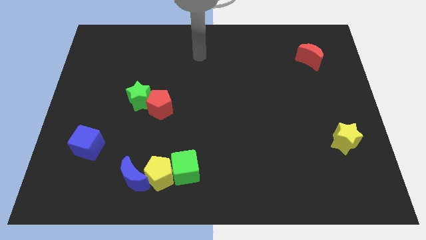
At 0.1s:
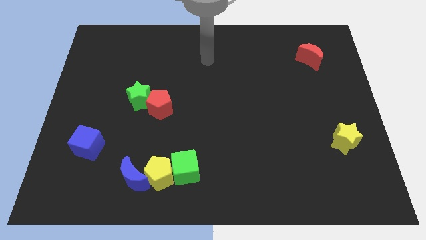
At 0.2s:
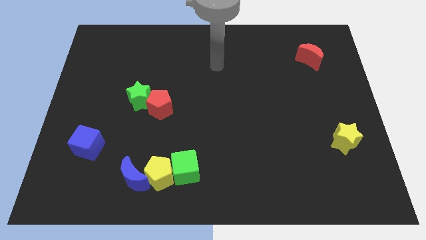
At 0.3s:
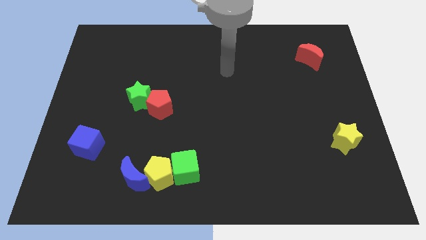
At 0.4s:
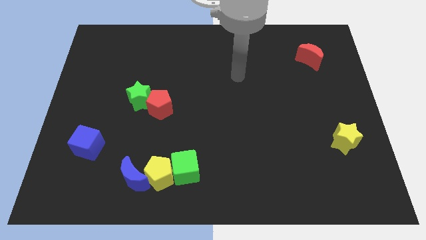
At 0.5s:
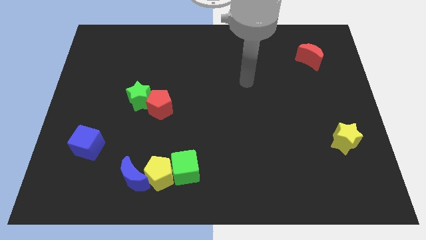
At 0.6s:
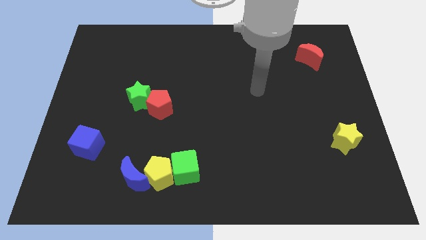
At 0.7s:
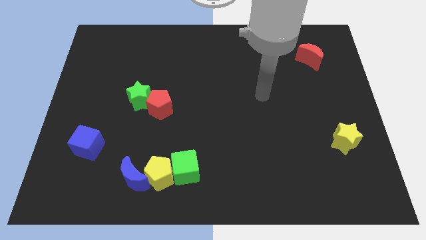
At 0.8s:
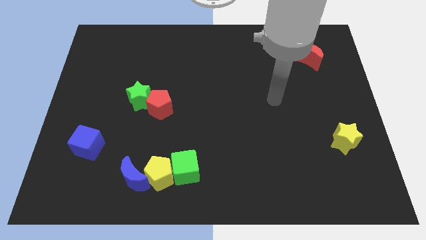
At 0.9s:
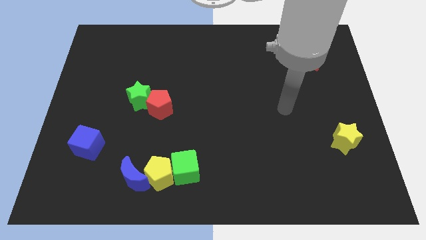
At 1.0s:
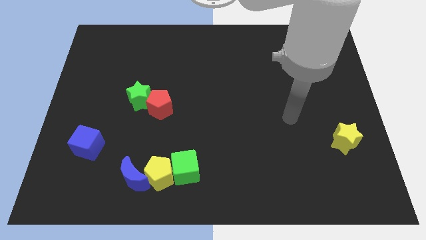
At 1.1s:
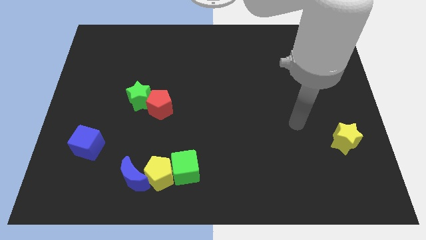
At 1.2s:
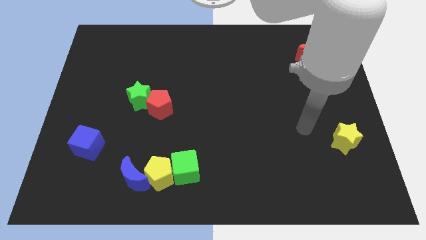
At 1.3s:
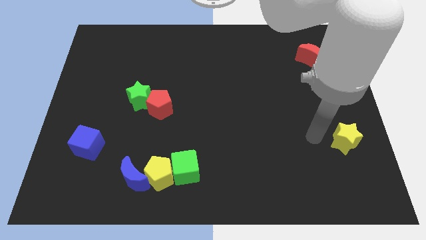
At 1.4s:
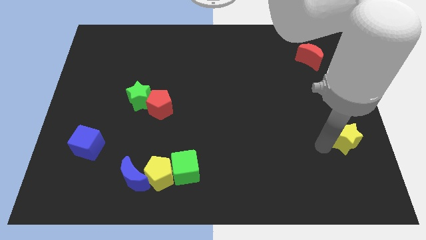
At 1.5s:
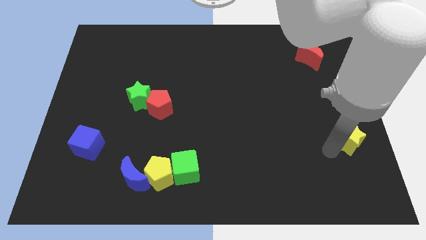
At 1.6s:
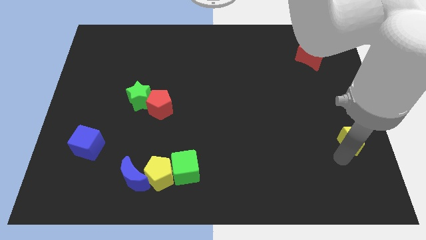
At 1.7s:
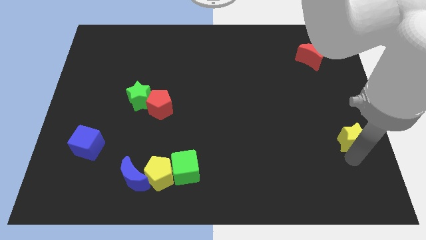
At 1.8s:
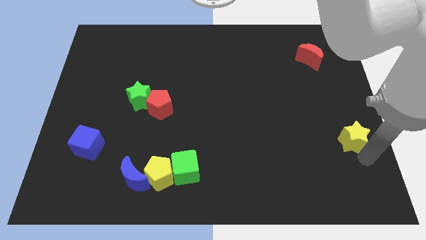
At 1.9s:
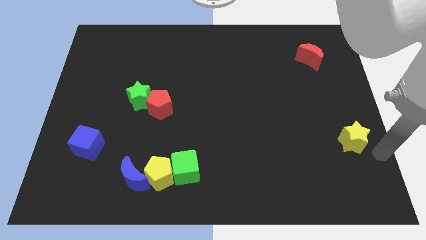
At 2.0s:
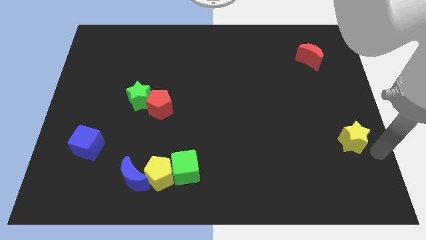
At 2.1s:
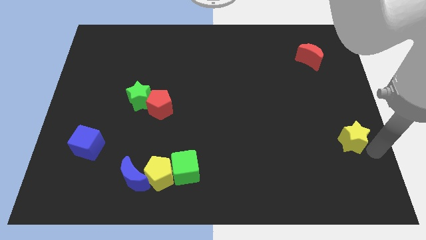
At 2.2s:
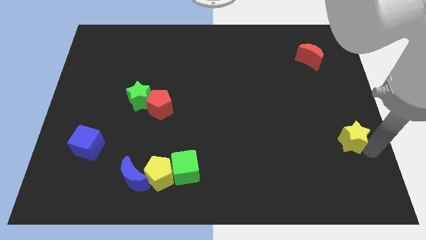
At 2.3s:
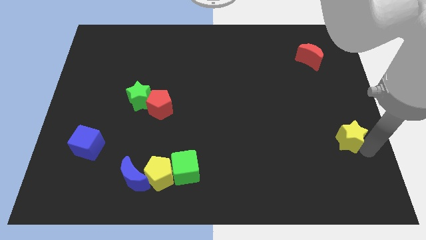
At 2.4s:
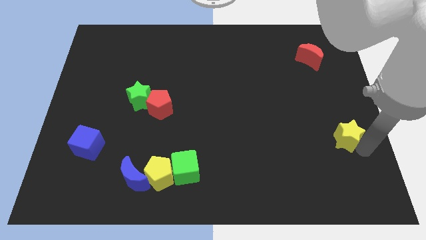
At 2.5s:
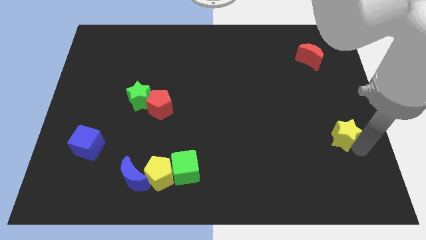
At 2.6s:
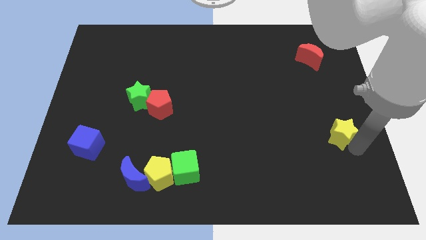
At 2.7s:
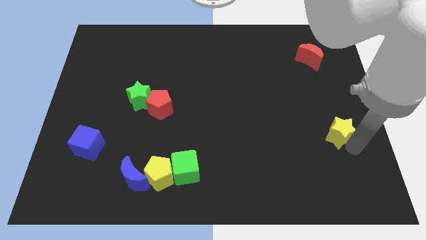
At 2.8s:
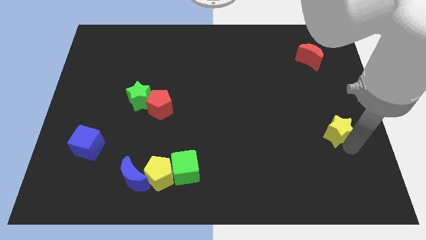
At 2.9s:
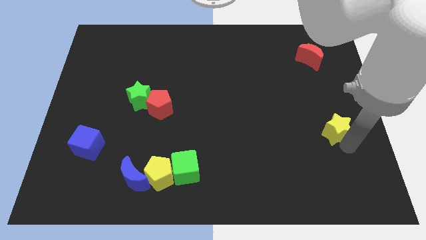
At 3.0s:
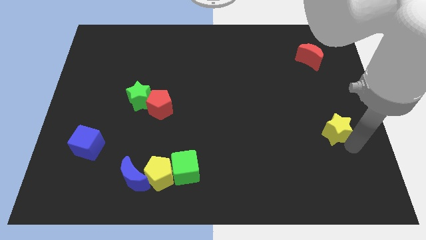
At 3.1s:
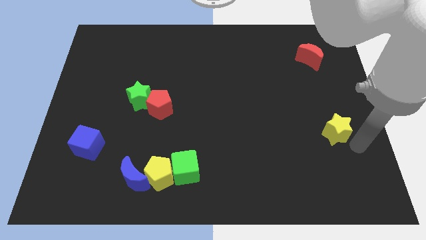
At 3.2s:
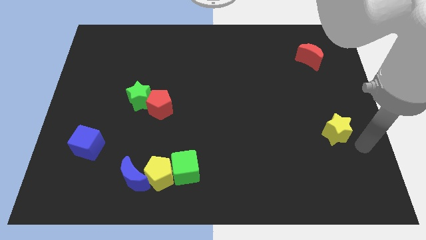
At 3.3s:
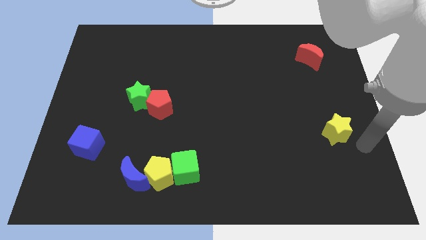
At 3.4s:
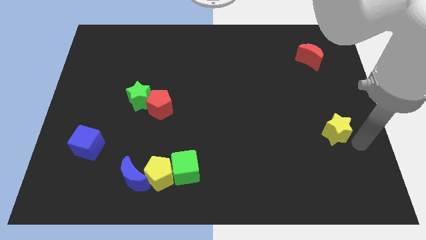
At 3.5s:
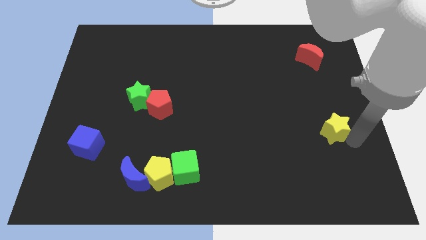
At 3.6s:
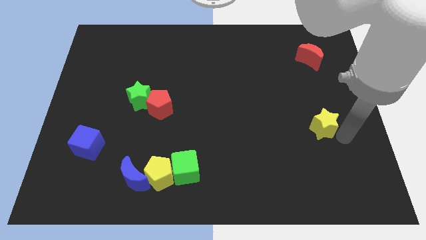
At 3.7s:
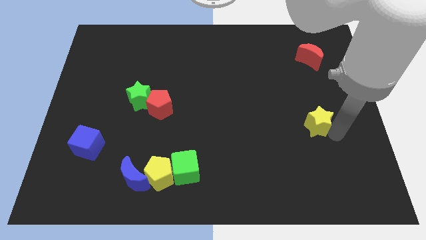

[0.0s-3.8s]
slightly push the yellow star diagonally up and to the left

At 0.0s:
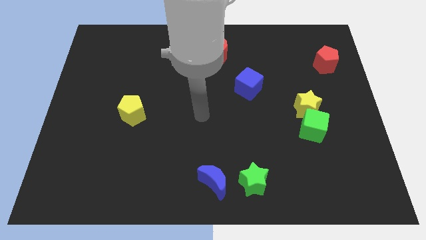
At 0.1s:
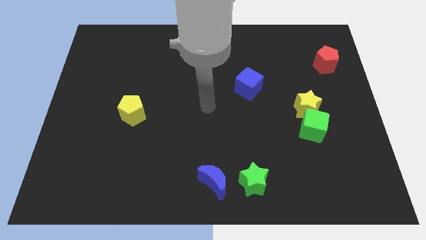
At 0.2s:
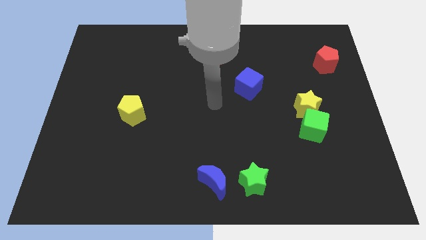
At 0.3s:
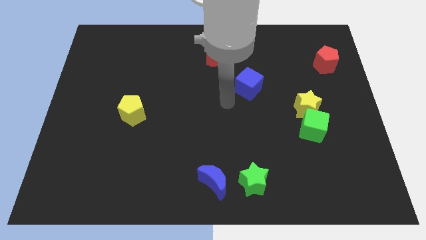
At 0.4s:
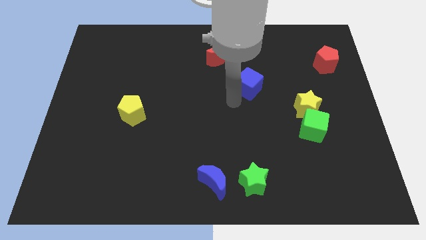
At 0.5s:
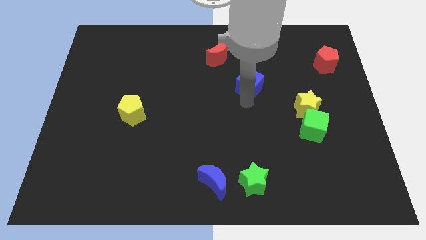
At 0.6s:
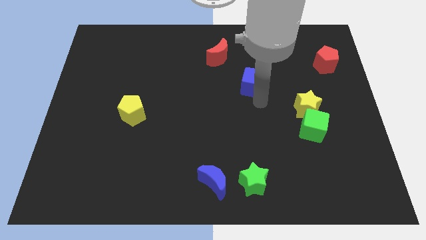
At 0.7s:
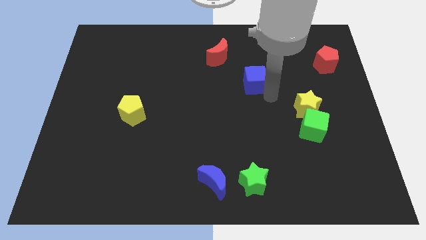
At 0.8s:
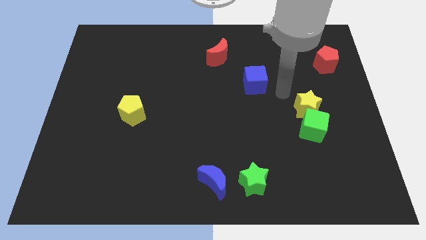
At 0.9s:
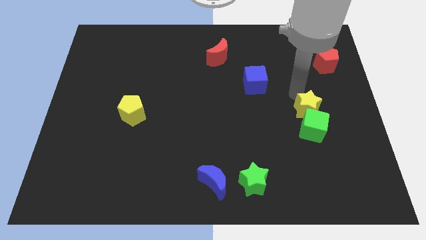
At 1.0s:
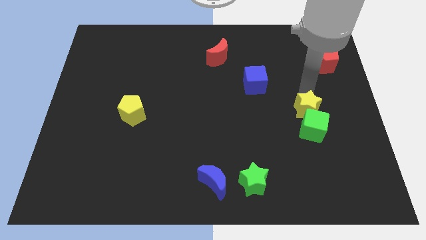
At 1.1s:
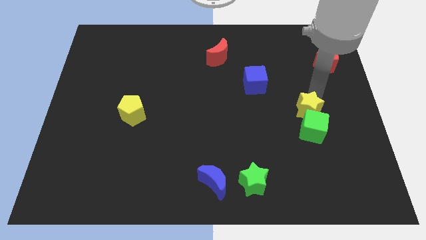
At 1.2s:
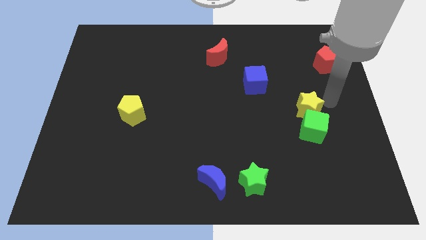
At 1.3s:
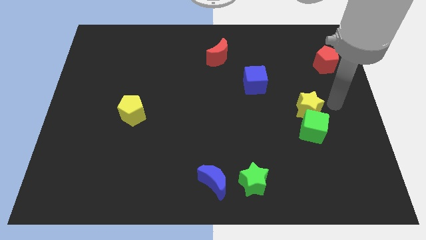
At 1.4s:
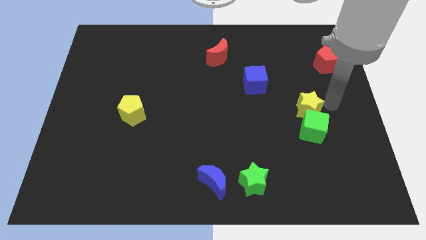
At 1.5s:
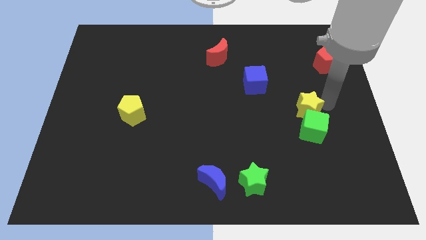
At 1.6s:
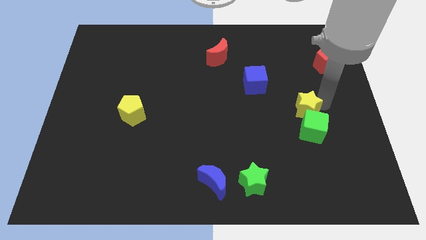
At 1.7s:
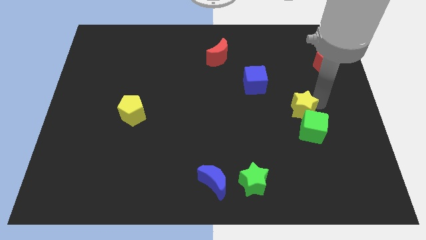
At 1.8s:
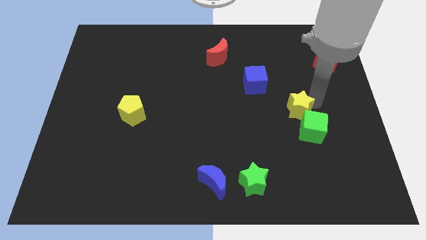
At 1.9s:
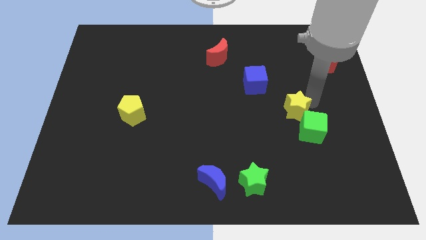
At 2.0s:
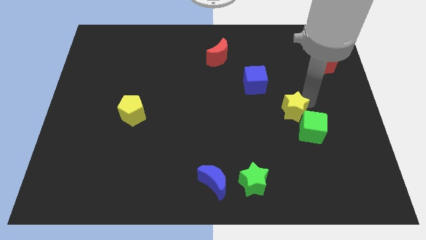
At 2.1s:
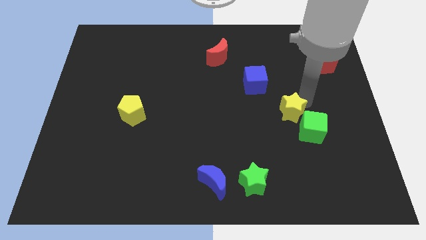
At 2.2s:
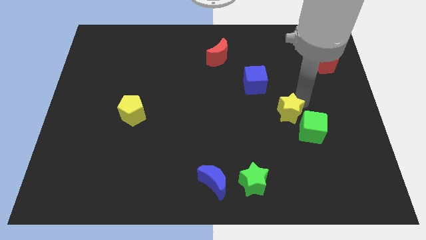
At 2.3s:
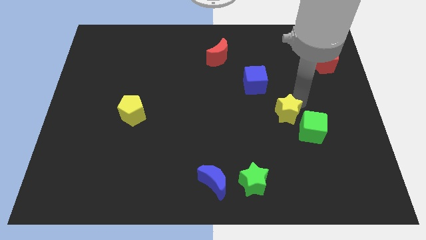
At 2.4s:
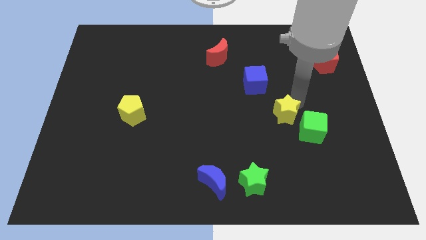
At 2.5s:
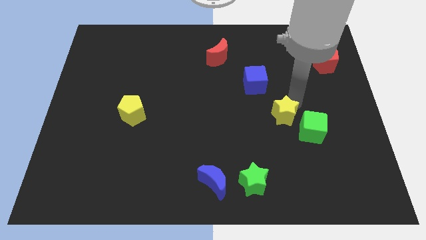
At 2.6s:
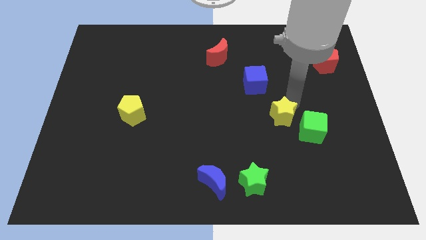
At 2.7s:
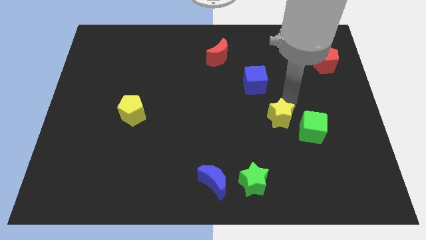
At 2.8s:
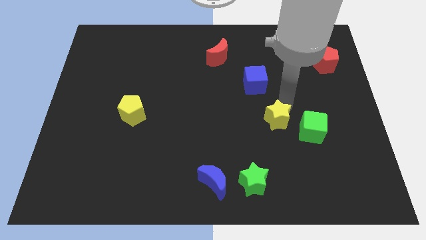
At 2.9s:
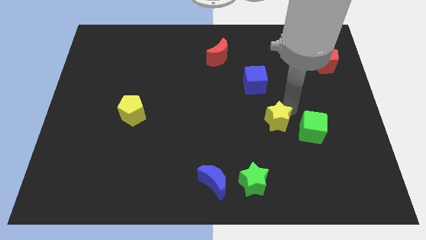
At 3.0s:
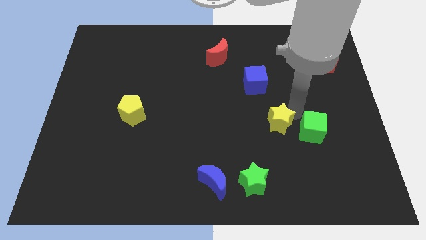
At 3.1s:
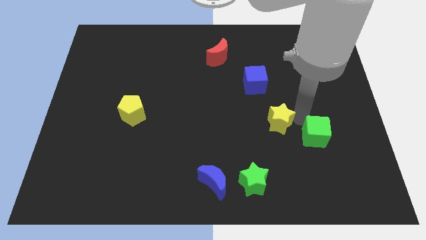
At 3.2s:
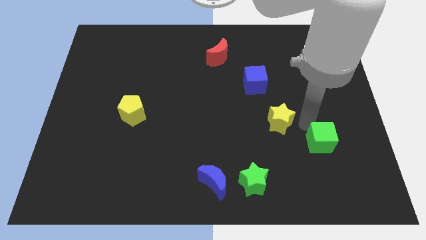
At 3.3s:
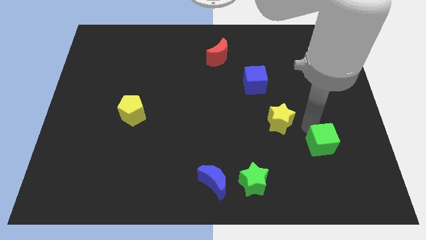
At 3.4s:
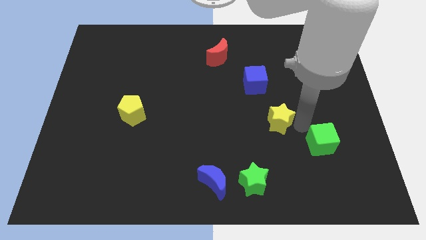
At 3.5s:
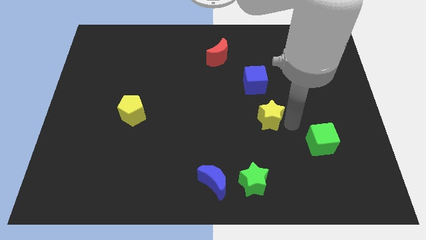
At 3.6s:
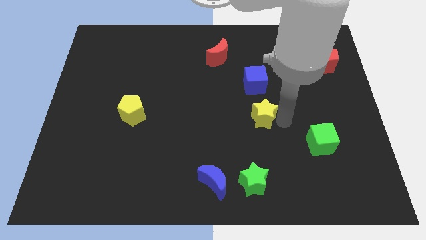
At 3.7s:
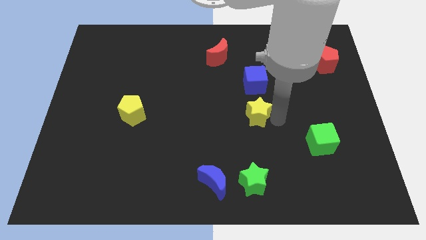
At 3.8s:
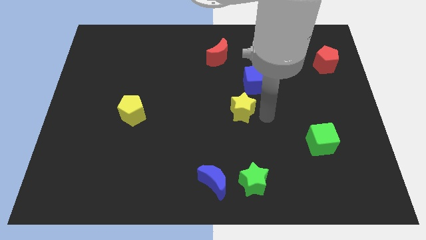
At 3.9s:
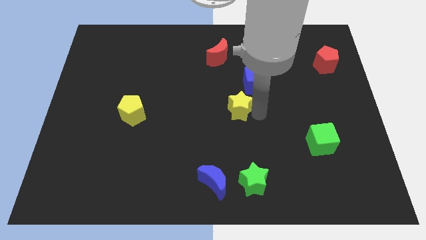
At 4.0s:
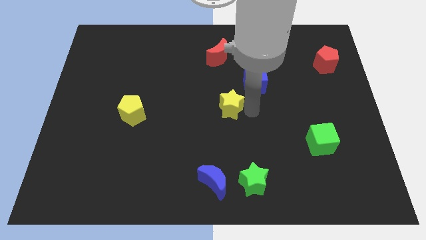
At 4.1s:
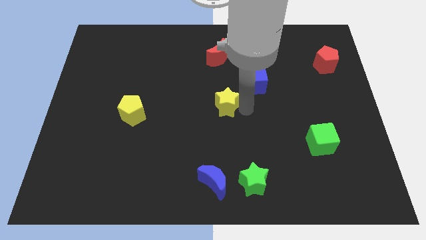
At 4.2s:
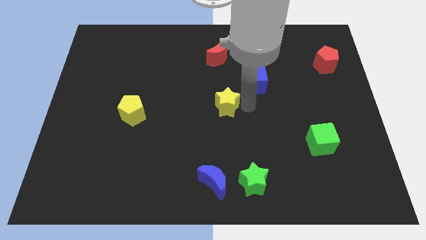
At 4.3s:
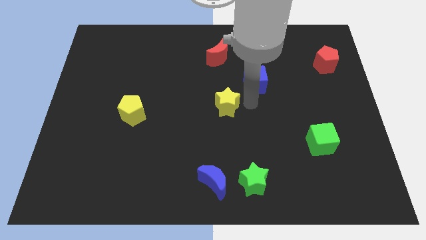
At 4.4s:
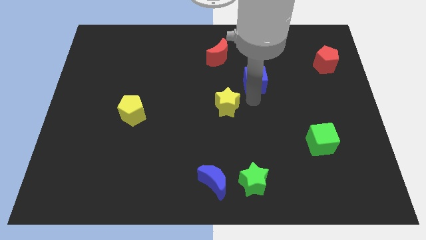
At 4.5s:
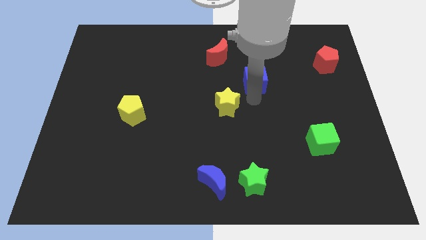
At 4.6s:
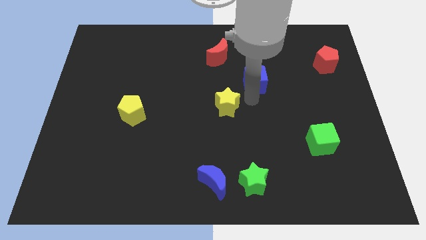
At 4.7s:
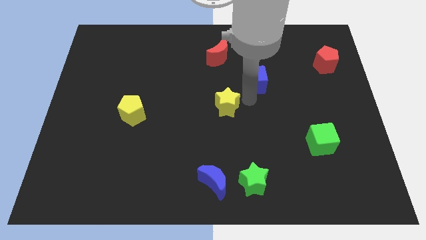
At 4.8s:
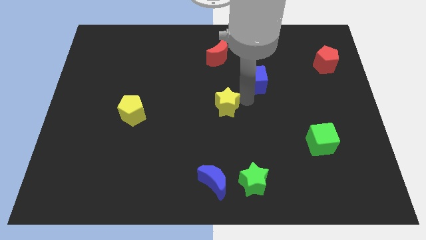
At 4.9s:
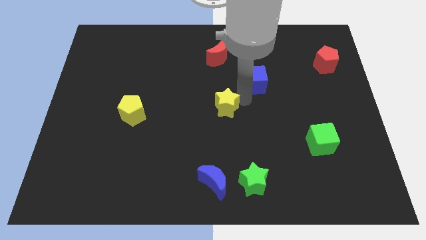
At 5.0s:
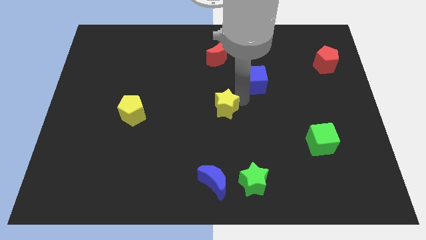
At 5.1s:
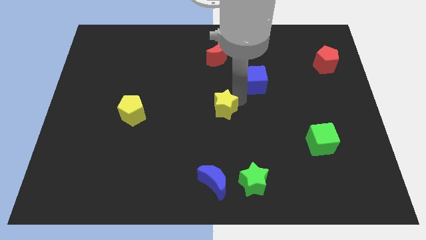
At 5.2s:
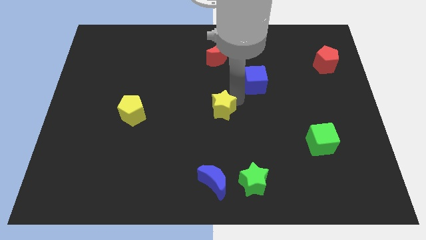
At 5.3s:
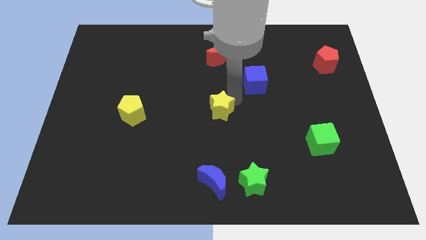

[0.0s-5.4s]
move the yellow star left
